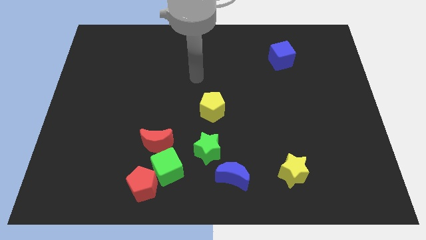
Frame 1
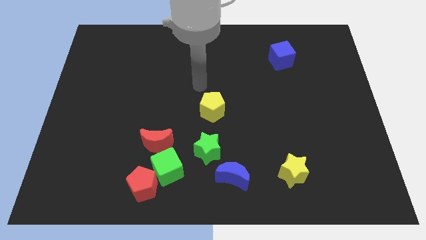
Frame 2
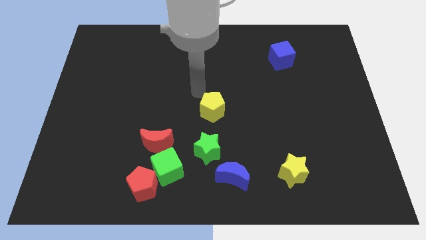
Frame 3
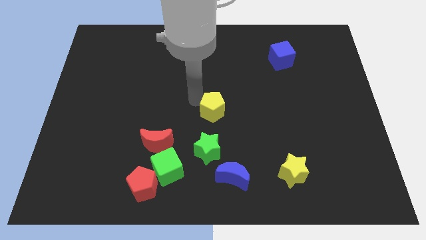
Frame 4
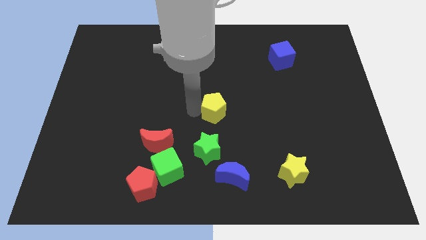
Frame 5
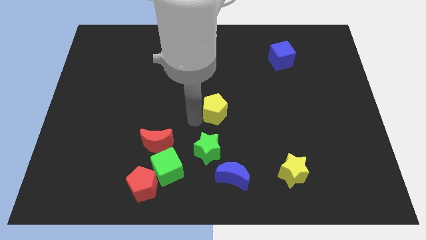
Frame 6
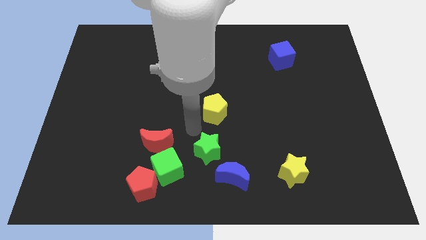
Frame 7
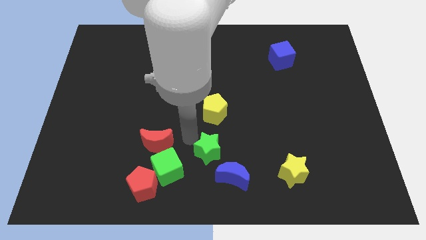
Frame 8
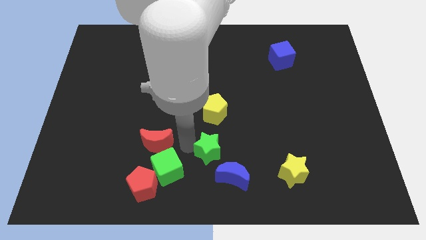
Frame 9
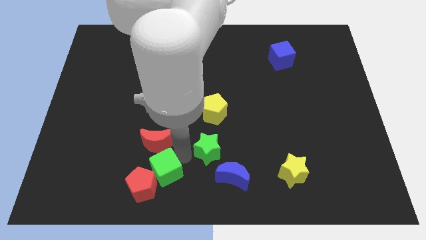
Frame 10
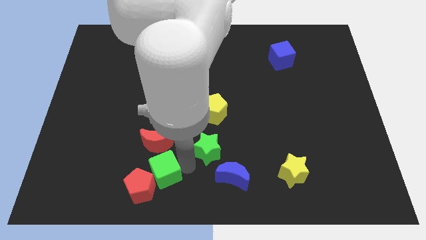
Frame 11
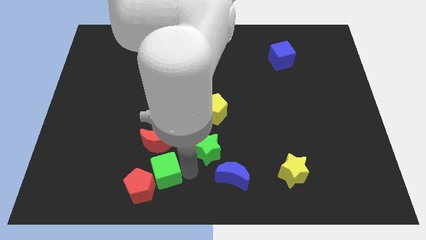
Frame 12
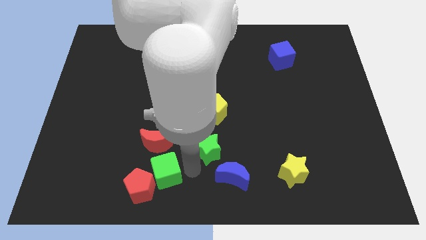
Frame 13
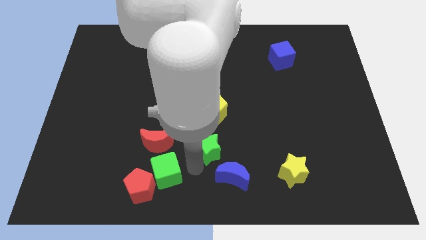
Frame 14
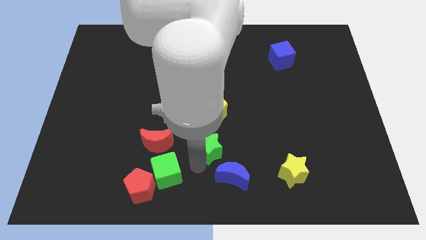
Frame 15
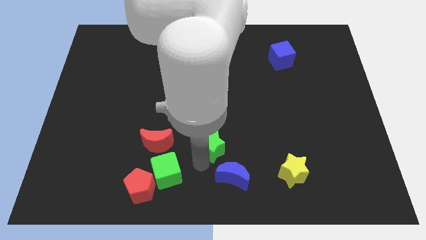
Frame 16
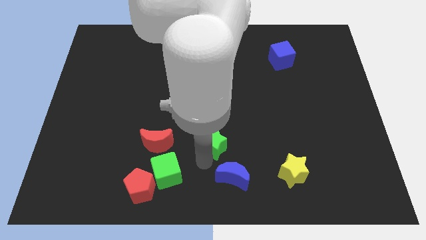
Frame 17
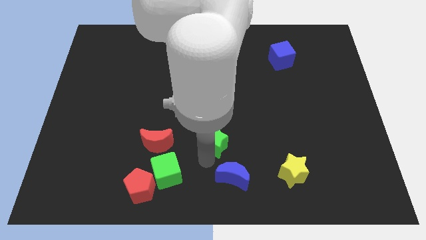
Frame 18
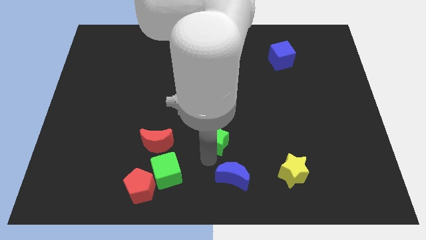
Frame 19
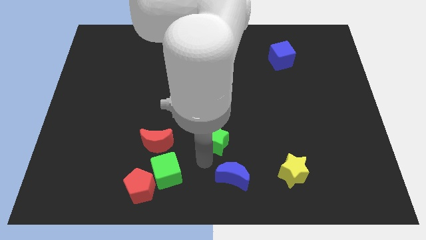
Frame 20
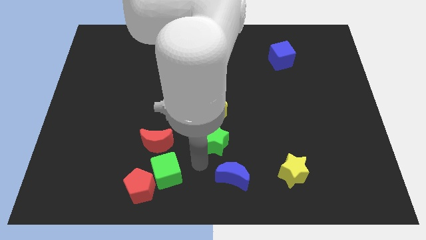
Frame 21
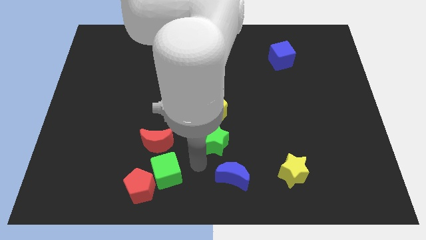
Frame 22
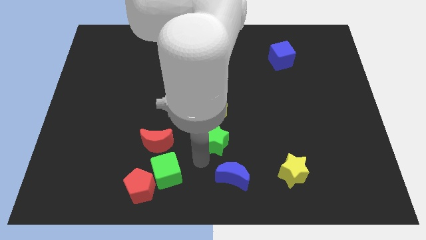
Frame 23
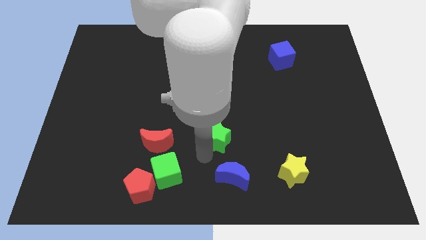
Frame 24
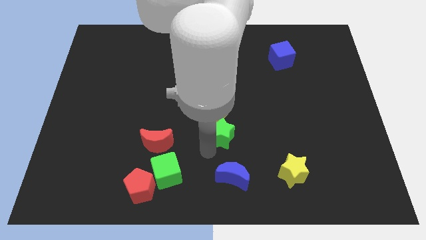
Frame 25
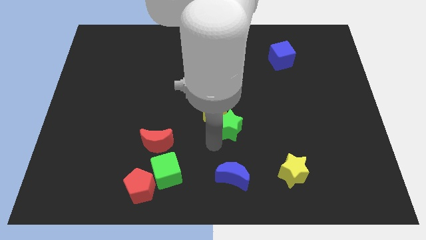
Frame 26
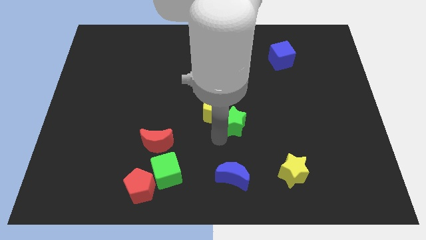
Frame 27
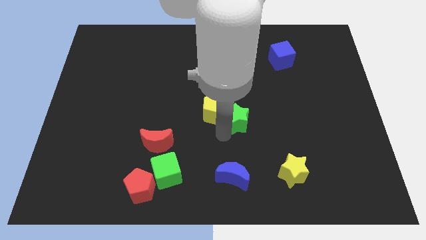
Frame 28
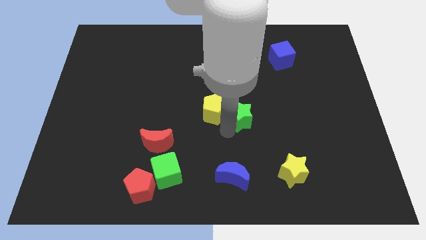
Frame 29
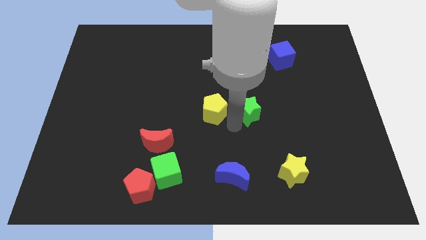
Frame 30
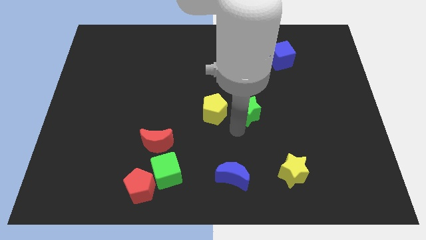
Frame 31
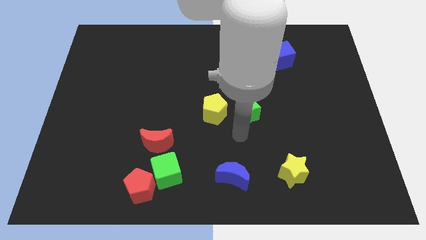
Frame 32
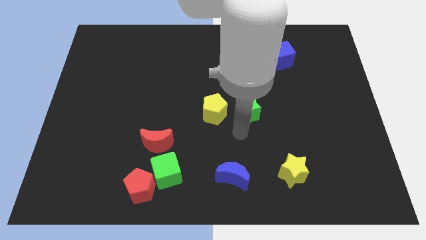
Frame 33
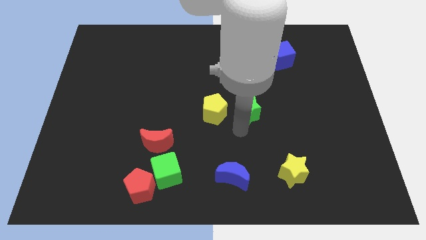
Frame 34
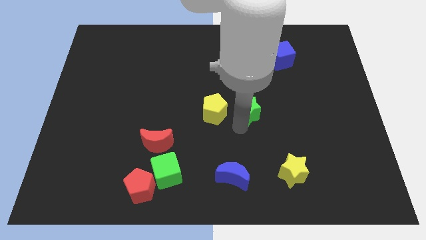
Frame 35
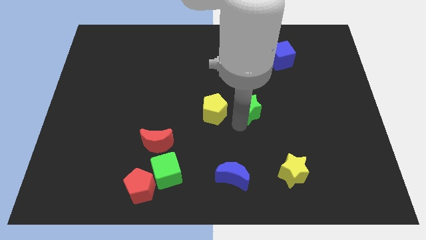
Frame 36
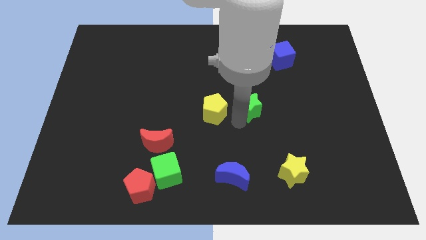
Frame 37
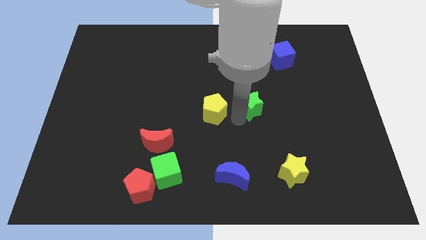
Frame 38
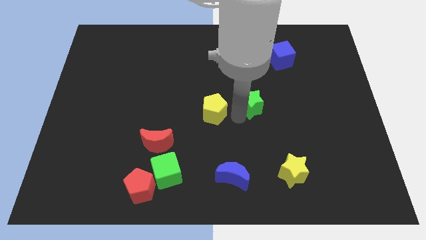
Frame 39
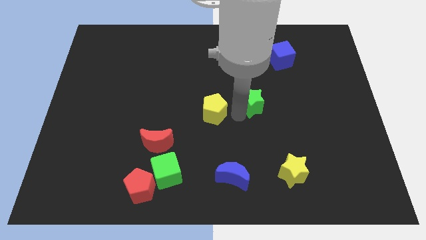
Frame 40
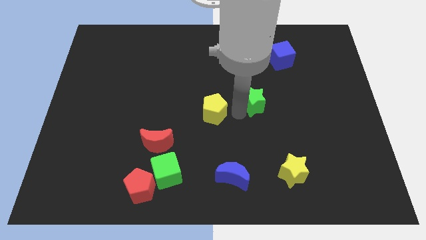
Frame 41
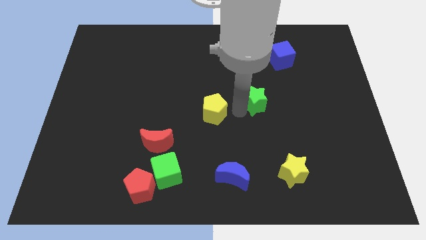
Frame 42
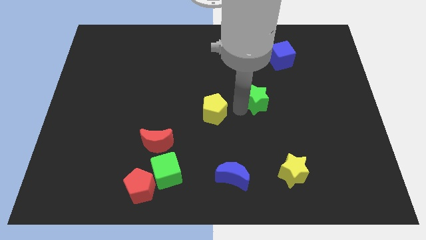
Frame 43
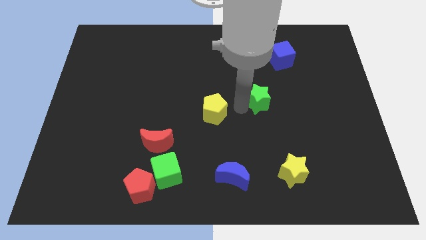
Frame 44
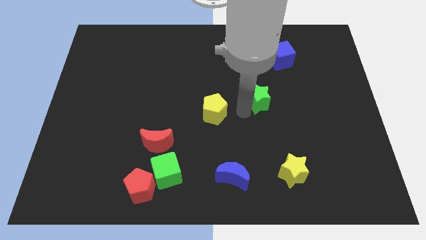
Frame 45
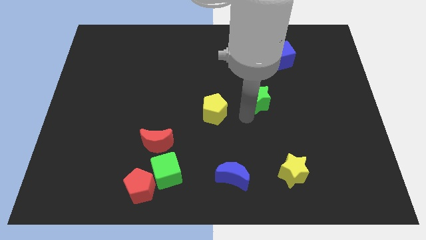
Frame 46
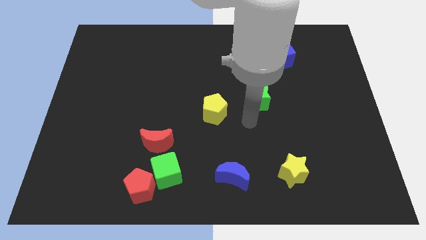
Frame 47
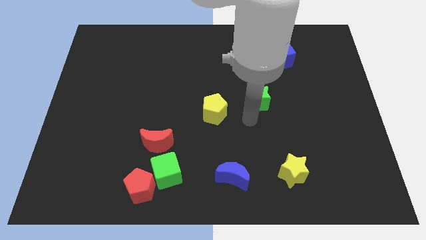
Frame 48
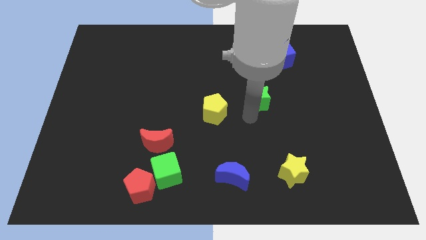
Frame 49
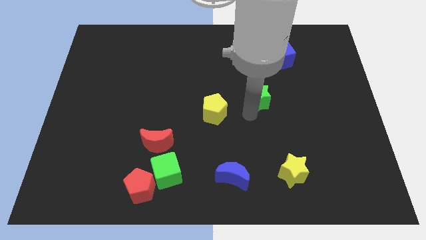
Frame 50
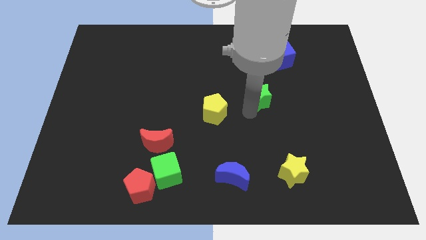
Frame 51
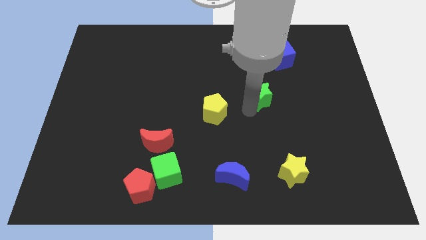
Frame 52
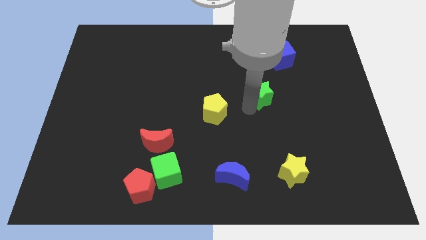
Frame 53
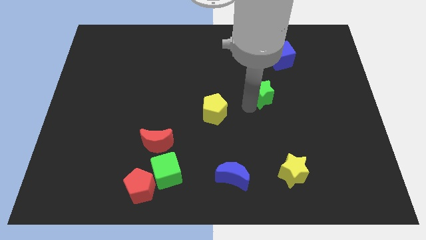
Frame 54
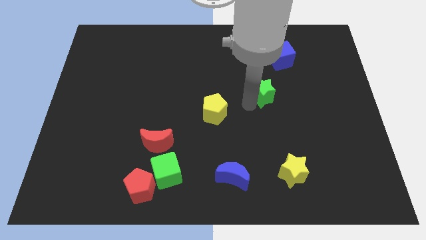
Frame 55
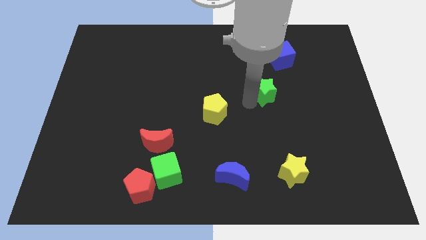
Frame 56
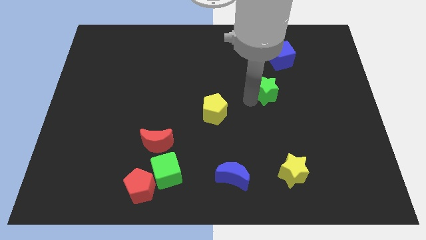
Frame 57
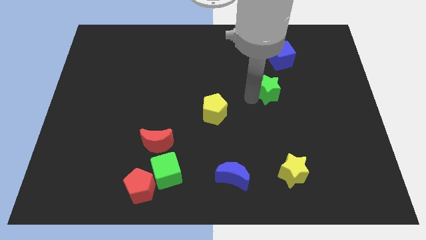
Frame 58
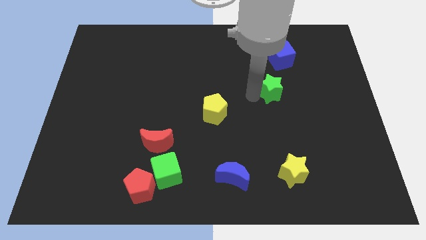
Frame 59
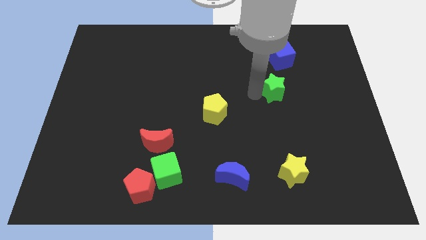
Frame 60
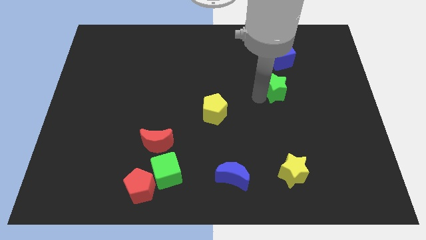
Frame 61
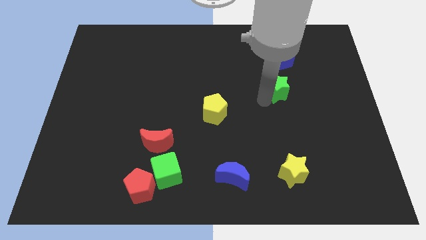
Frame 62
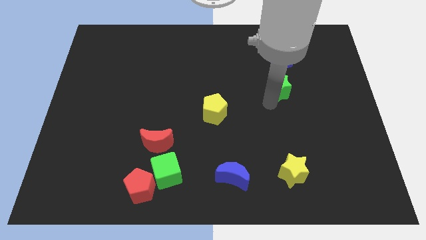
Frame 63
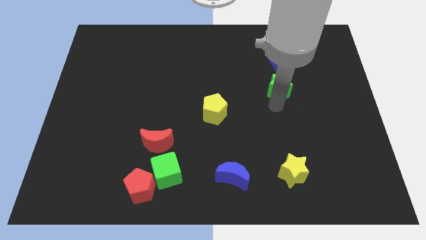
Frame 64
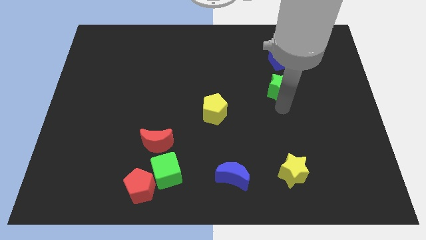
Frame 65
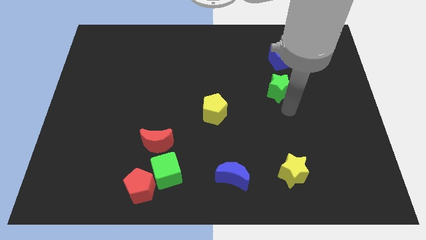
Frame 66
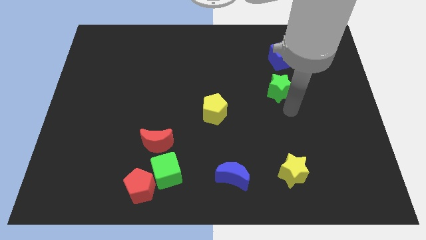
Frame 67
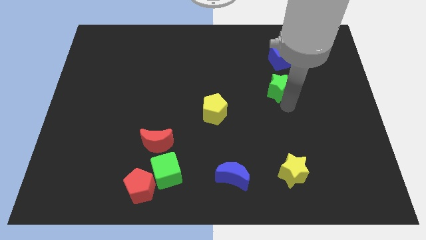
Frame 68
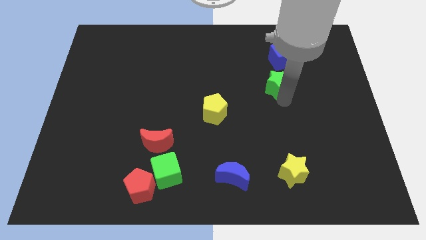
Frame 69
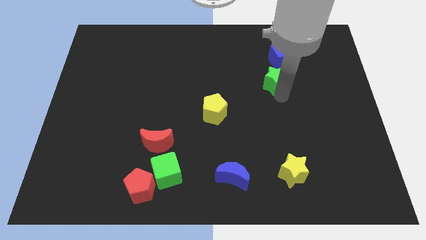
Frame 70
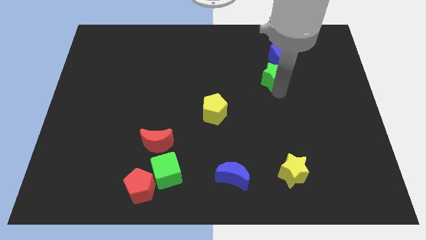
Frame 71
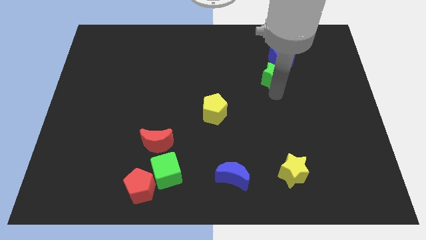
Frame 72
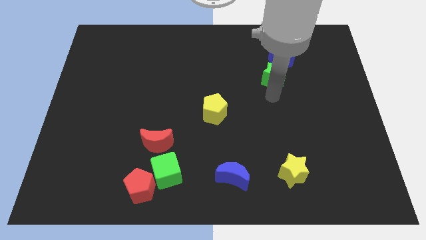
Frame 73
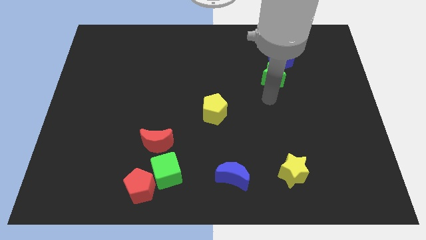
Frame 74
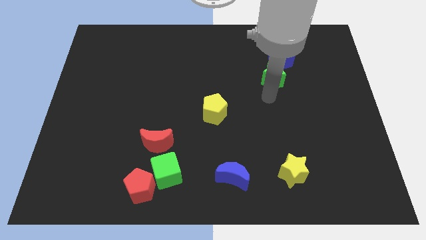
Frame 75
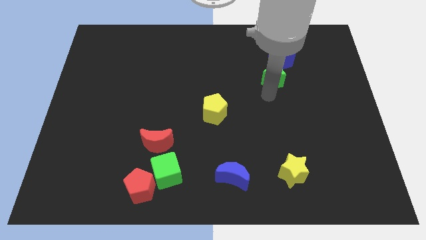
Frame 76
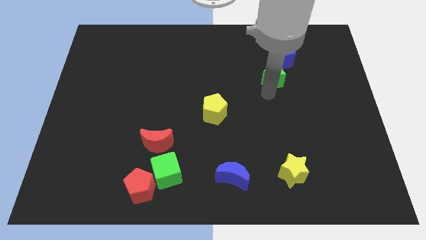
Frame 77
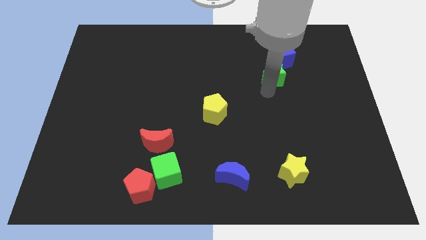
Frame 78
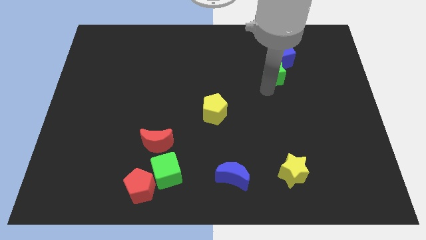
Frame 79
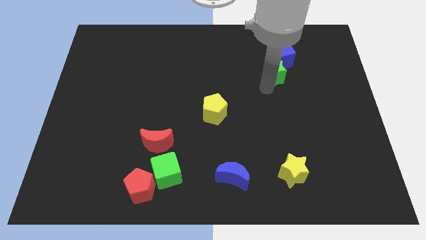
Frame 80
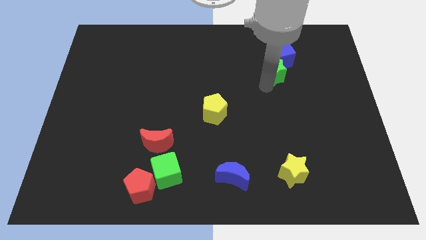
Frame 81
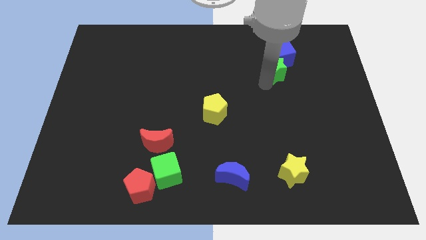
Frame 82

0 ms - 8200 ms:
put the green star towards the blue cube
